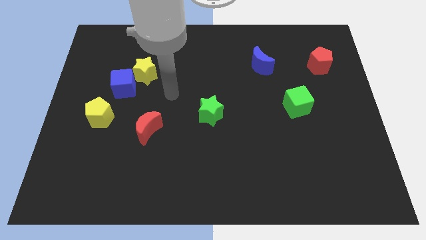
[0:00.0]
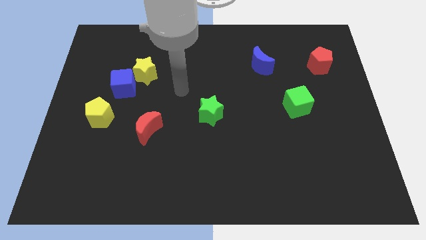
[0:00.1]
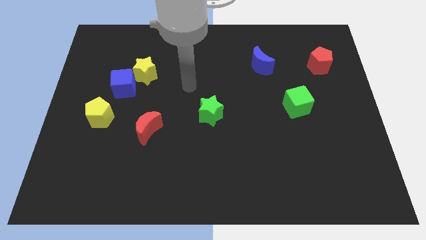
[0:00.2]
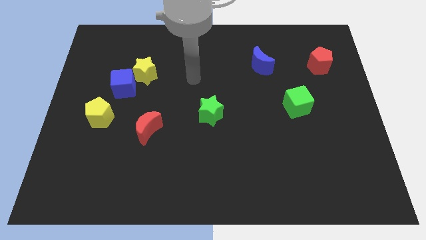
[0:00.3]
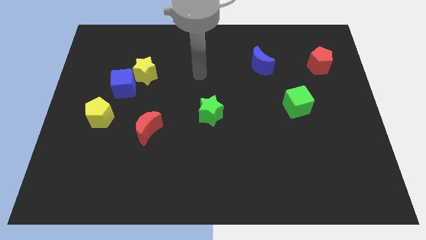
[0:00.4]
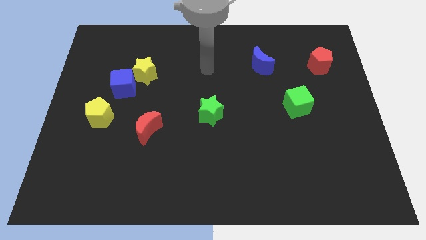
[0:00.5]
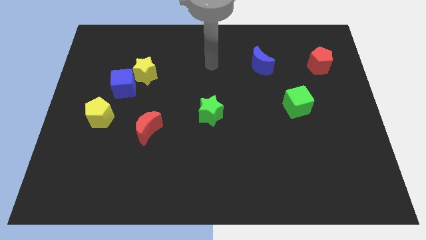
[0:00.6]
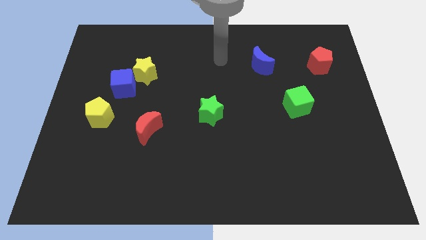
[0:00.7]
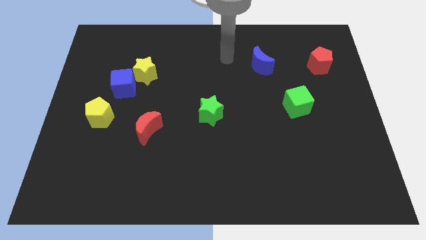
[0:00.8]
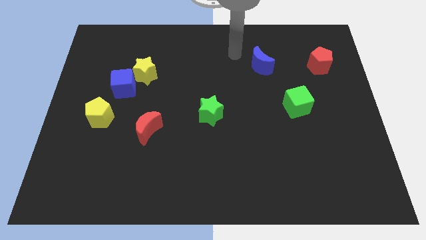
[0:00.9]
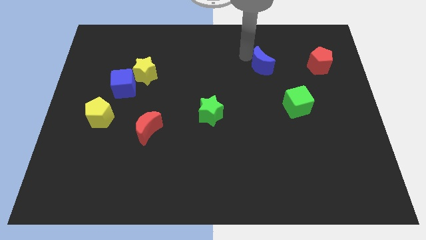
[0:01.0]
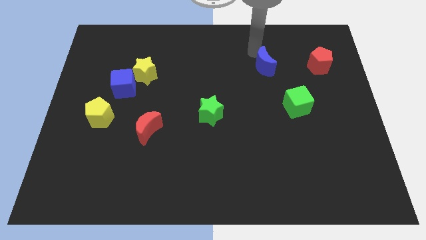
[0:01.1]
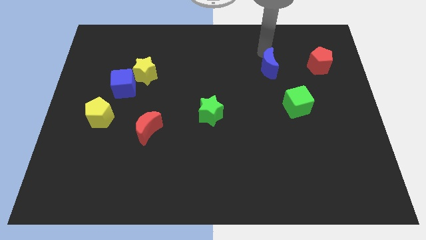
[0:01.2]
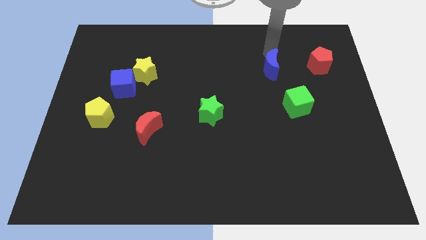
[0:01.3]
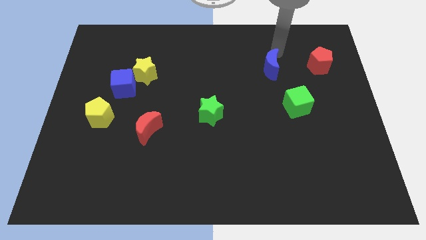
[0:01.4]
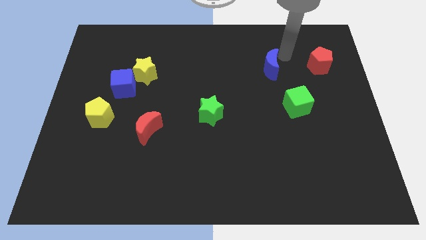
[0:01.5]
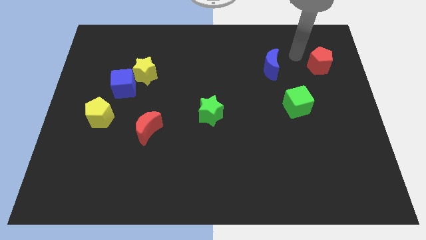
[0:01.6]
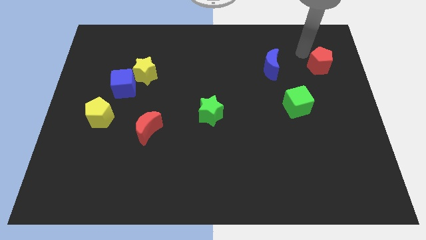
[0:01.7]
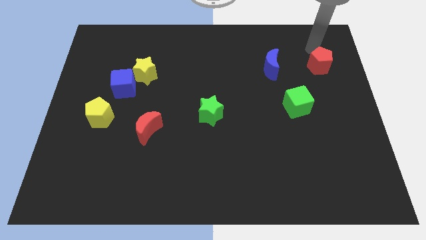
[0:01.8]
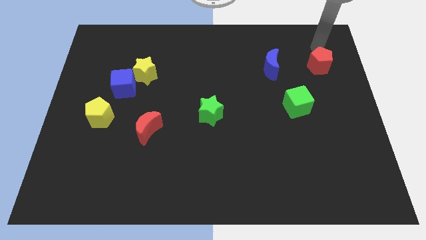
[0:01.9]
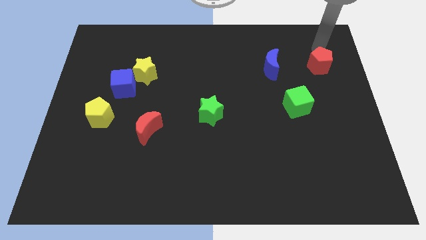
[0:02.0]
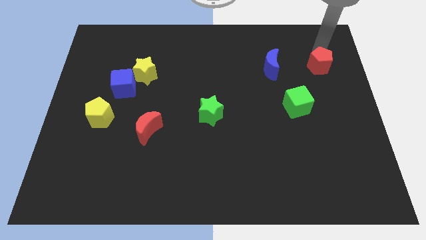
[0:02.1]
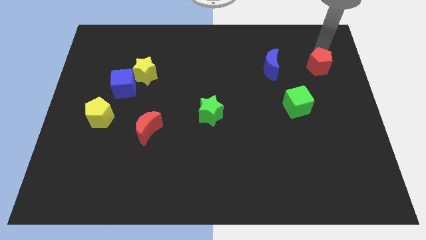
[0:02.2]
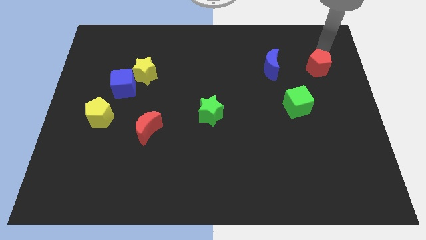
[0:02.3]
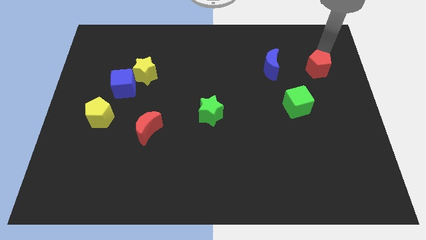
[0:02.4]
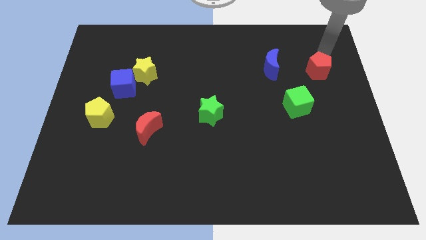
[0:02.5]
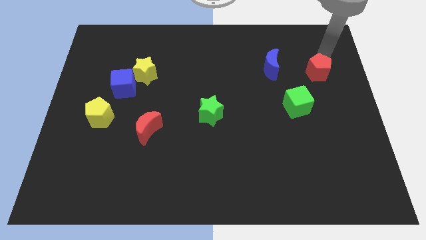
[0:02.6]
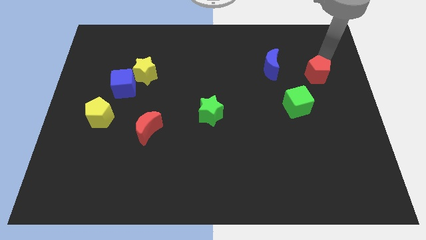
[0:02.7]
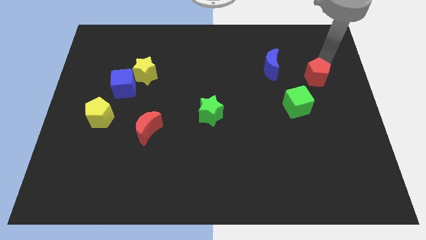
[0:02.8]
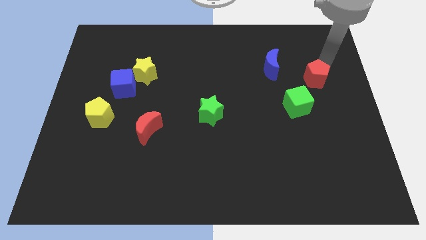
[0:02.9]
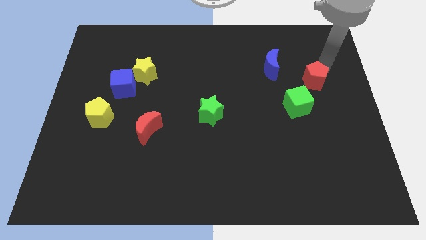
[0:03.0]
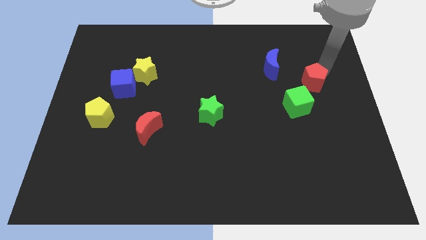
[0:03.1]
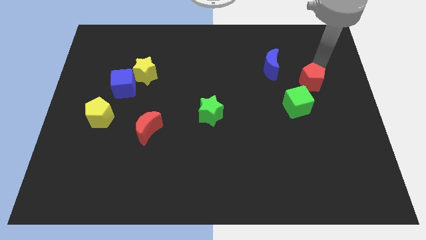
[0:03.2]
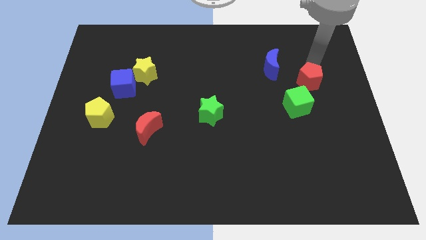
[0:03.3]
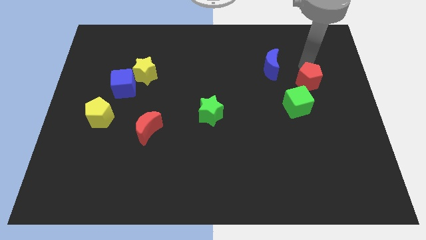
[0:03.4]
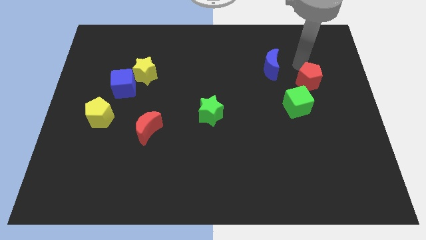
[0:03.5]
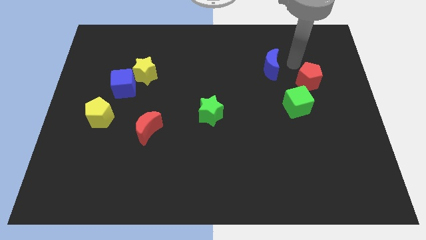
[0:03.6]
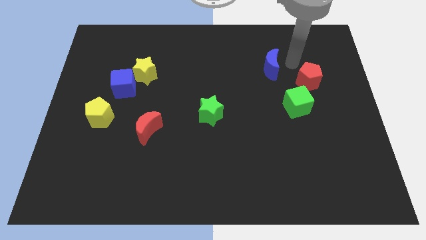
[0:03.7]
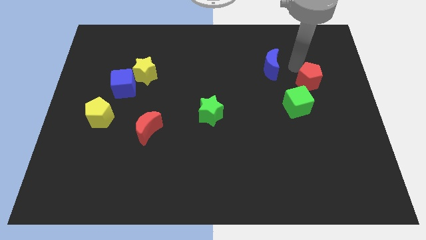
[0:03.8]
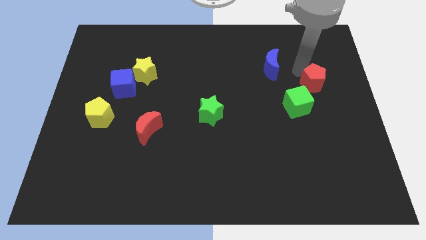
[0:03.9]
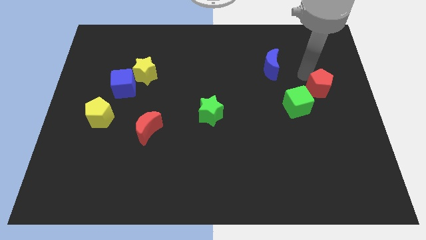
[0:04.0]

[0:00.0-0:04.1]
move the red pentagon down somewhat

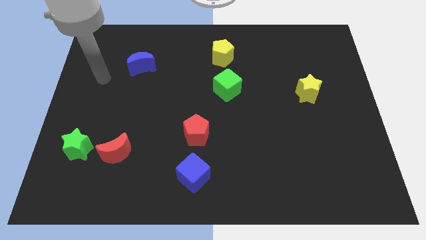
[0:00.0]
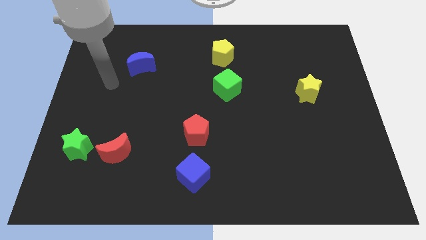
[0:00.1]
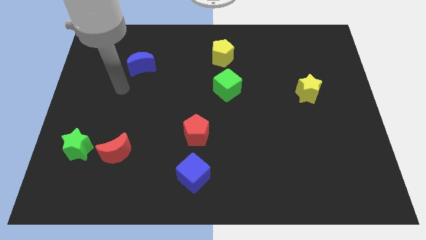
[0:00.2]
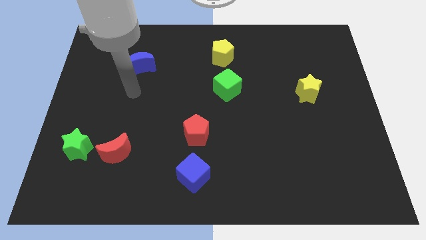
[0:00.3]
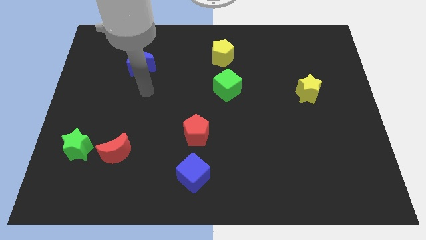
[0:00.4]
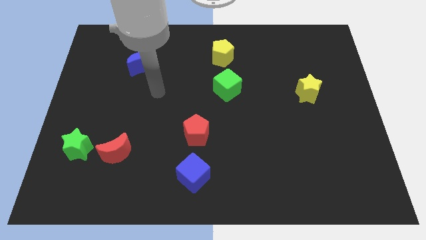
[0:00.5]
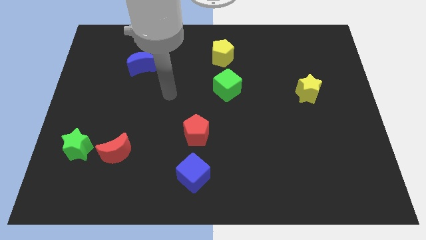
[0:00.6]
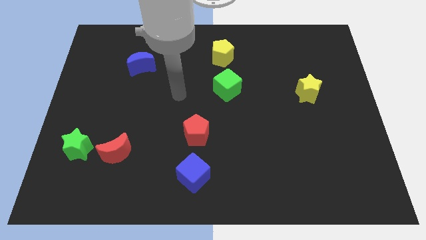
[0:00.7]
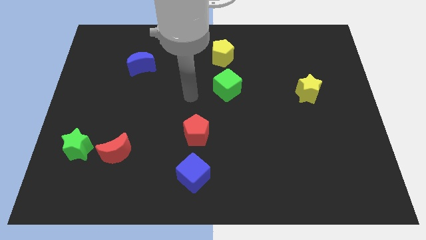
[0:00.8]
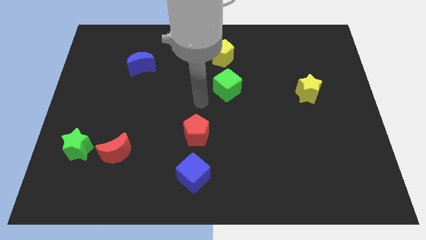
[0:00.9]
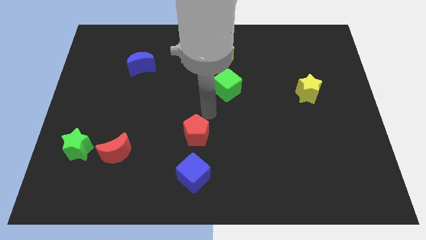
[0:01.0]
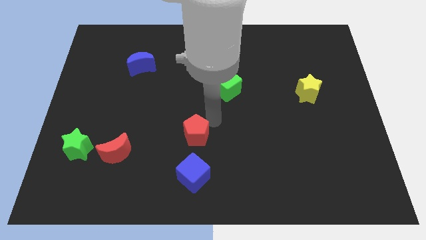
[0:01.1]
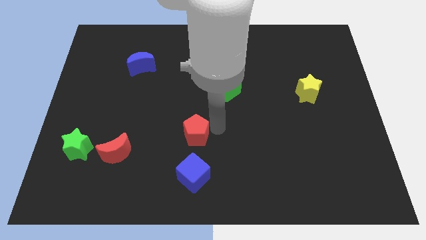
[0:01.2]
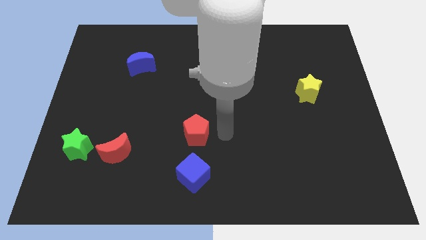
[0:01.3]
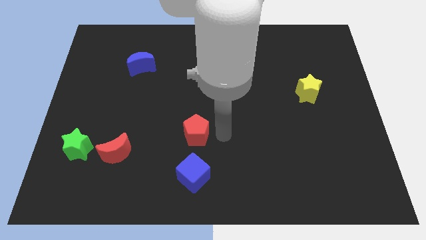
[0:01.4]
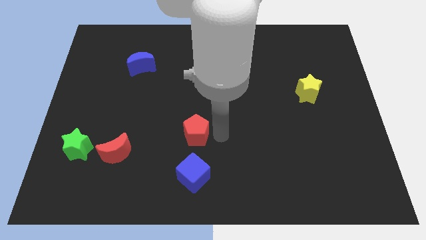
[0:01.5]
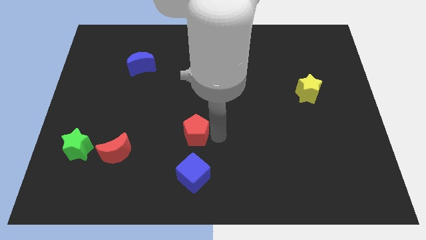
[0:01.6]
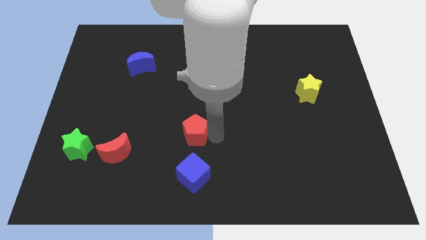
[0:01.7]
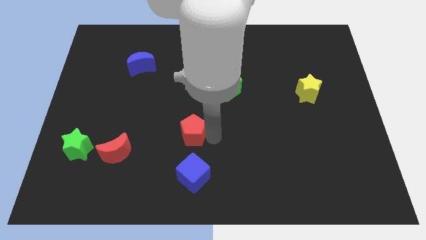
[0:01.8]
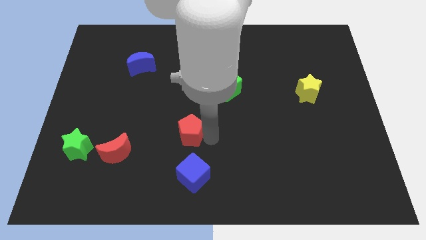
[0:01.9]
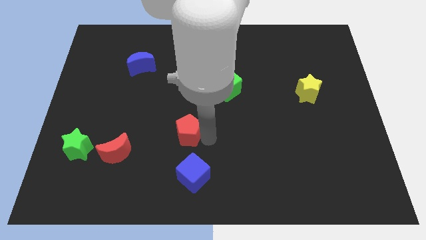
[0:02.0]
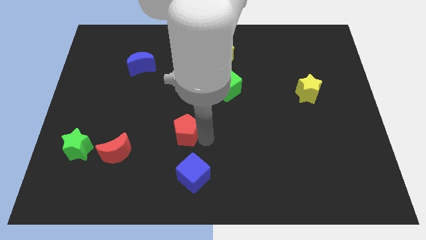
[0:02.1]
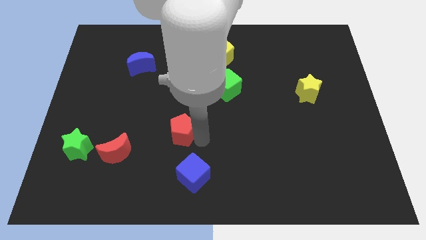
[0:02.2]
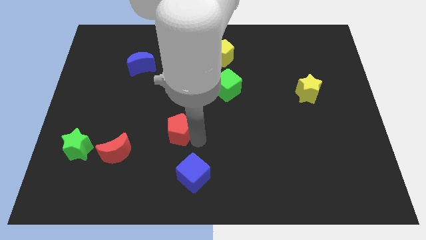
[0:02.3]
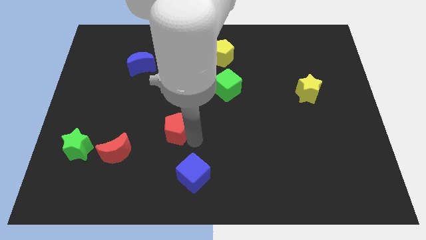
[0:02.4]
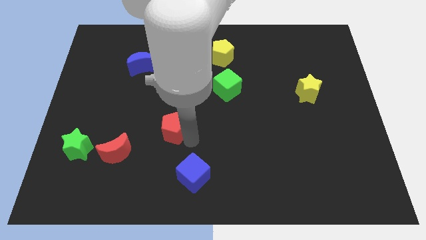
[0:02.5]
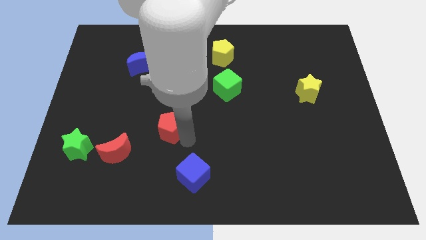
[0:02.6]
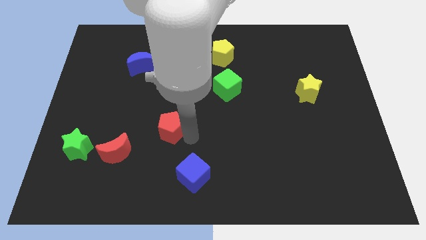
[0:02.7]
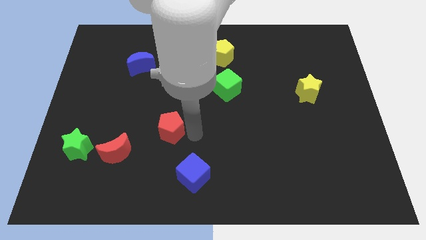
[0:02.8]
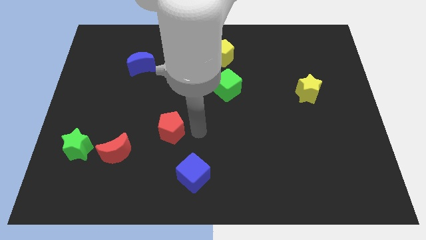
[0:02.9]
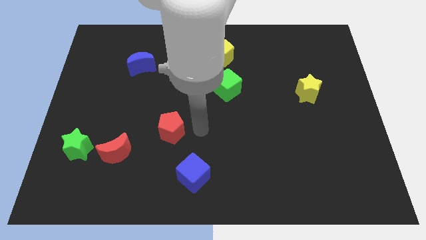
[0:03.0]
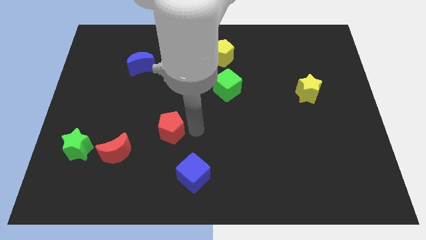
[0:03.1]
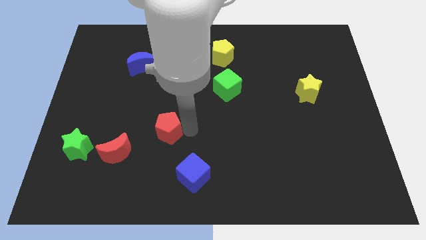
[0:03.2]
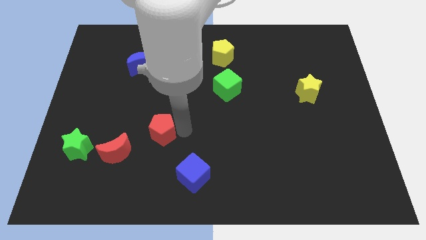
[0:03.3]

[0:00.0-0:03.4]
push the red pentagon a bit to the left

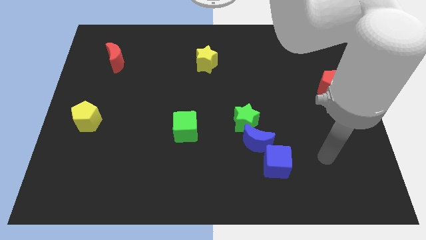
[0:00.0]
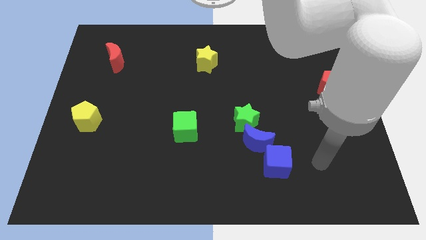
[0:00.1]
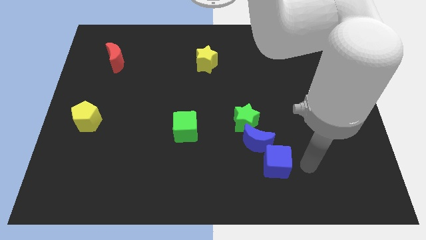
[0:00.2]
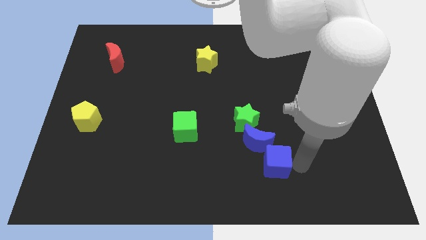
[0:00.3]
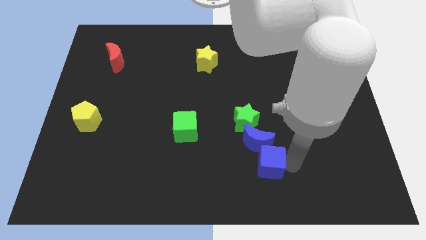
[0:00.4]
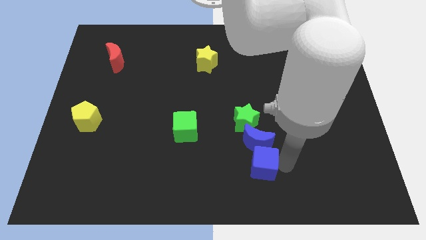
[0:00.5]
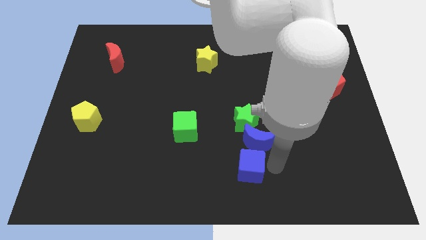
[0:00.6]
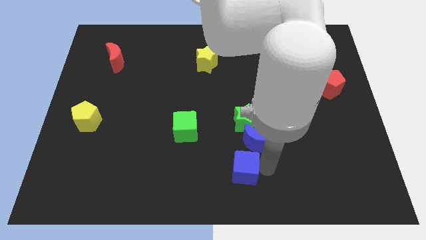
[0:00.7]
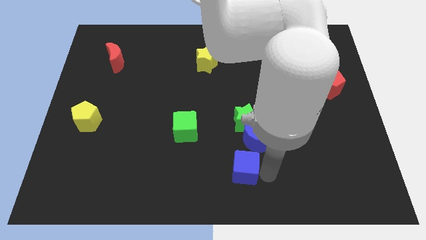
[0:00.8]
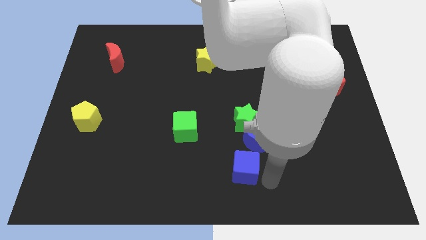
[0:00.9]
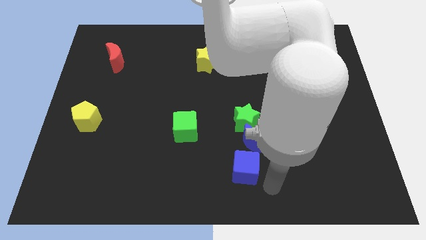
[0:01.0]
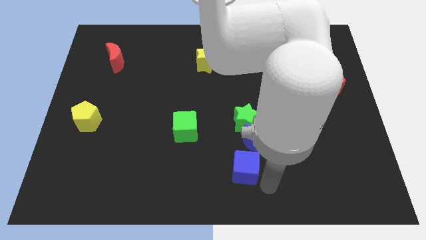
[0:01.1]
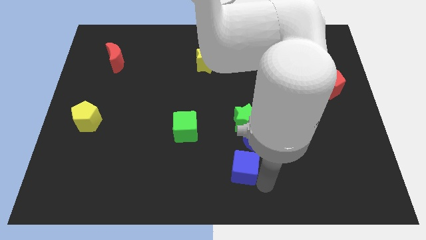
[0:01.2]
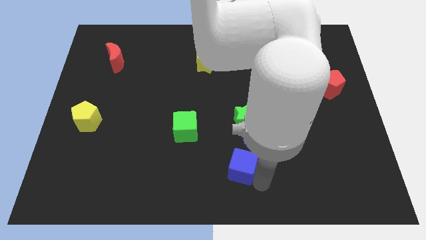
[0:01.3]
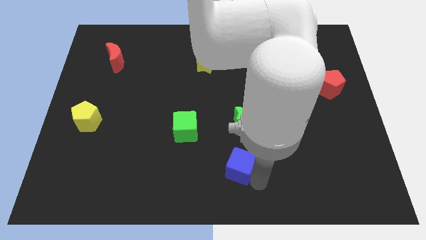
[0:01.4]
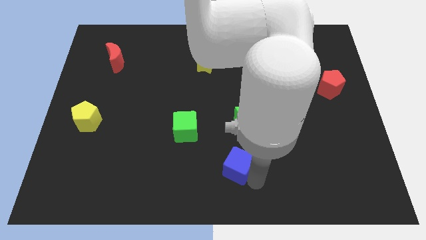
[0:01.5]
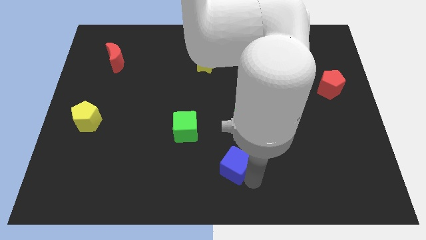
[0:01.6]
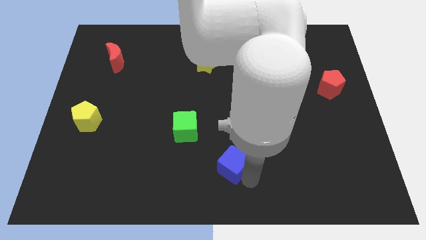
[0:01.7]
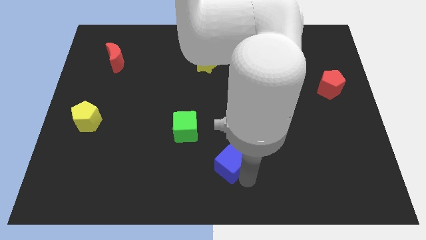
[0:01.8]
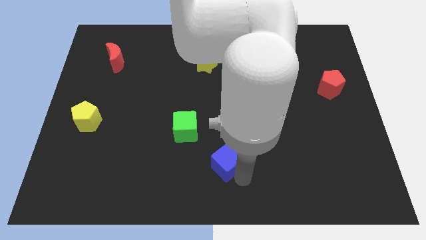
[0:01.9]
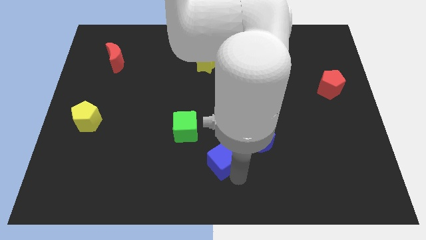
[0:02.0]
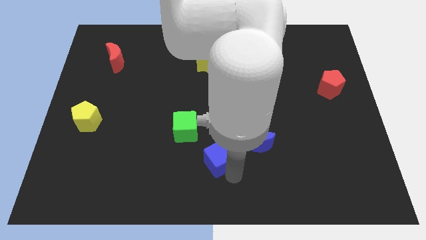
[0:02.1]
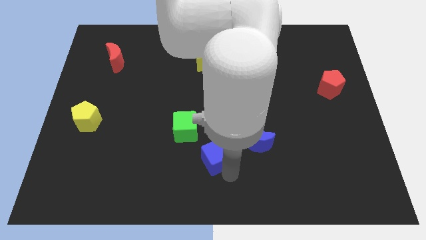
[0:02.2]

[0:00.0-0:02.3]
slightly slide the blue cube upwards and to the left diagonally
